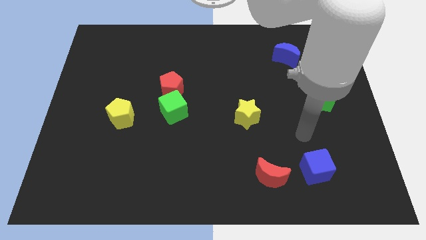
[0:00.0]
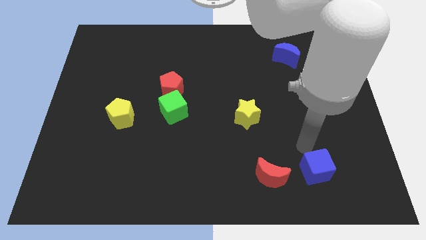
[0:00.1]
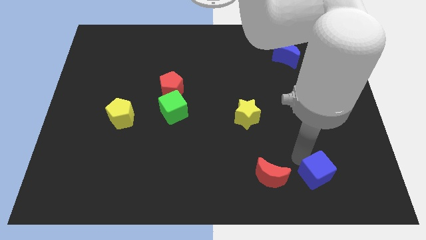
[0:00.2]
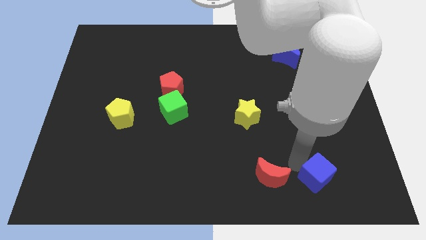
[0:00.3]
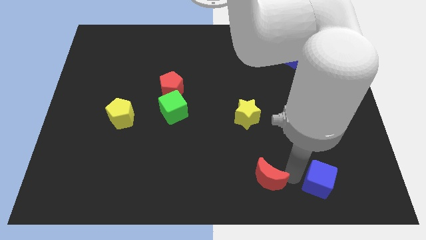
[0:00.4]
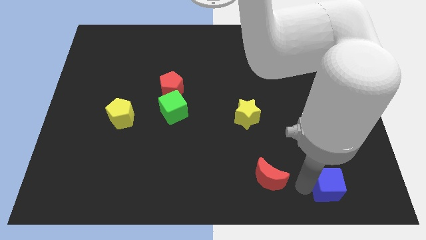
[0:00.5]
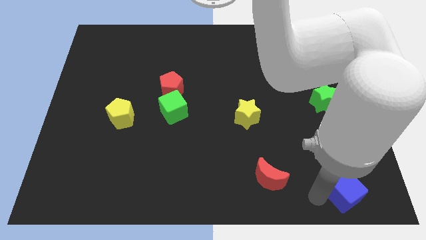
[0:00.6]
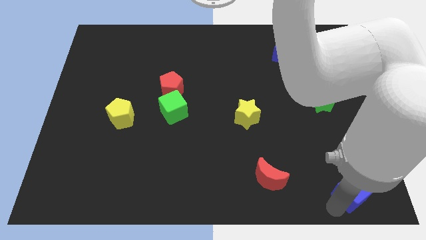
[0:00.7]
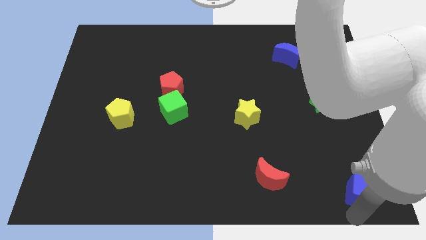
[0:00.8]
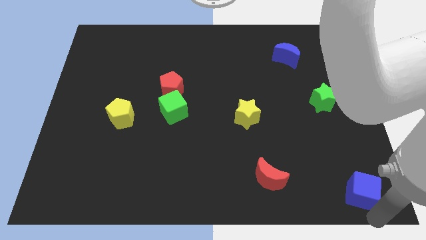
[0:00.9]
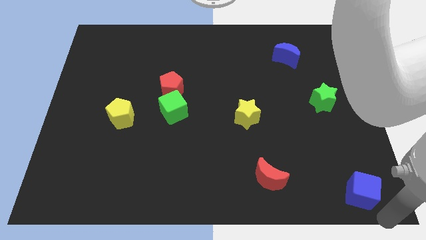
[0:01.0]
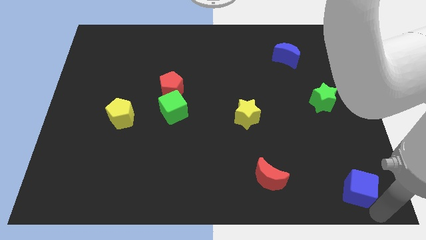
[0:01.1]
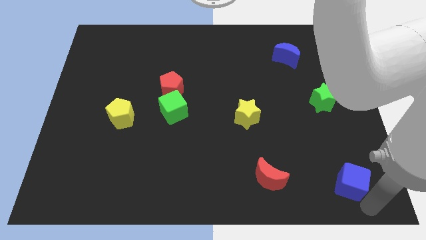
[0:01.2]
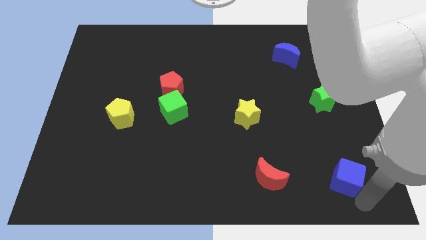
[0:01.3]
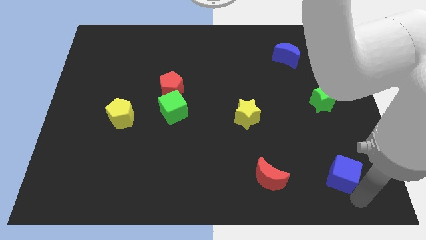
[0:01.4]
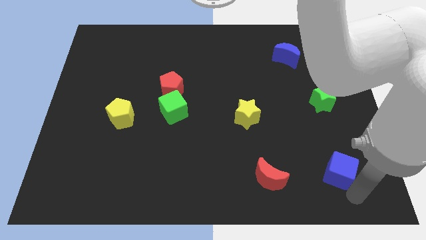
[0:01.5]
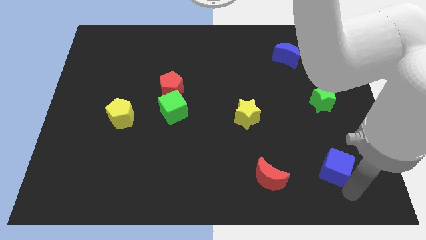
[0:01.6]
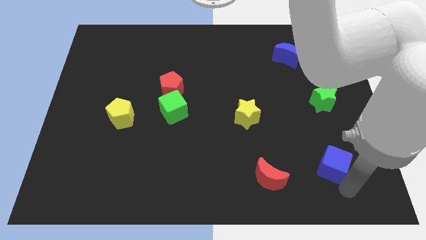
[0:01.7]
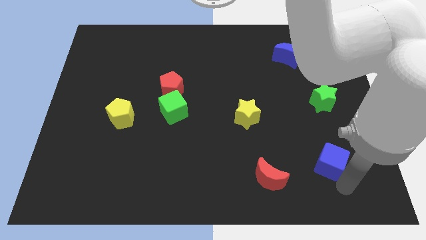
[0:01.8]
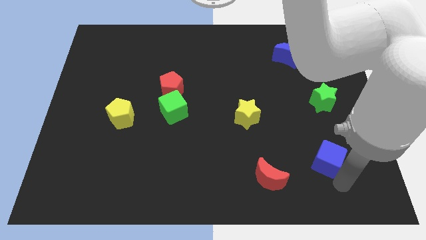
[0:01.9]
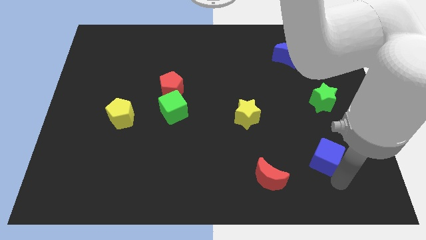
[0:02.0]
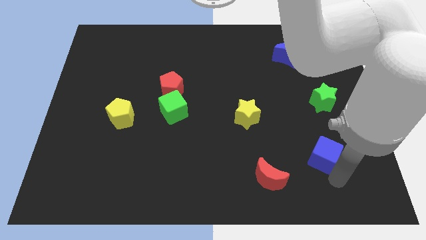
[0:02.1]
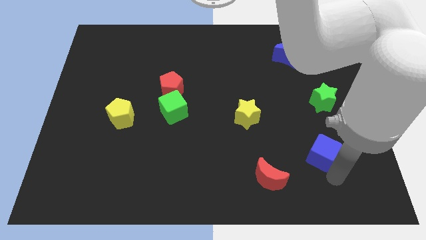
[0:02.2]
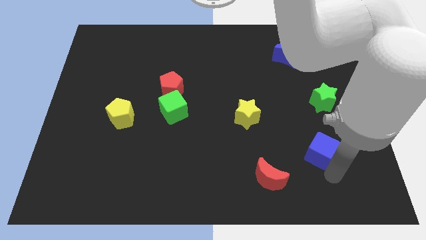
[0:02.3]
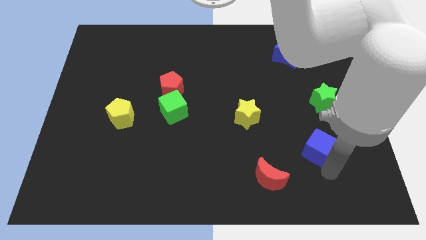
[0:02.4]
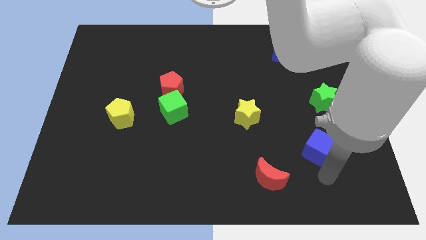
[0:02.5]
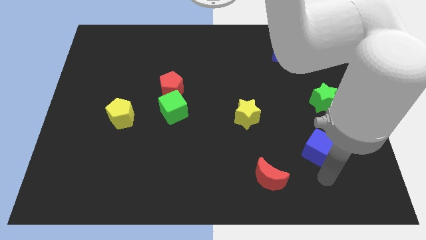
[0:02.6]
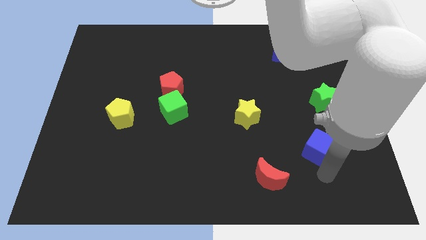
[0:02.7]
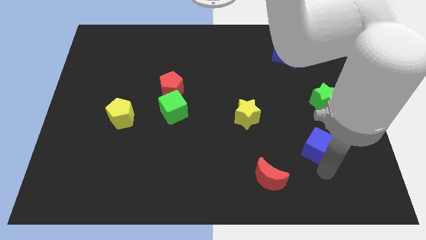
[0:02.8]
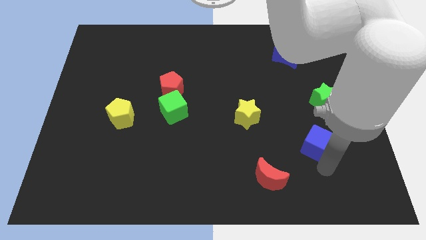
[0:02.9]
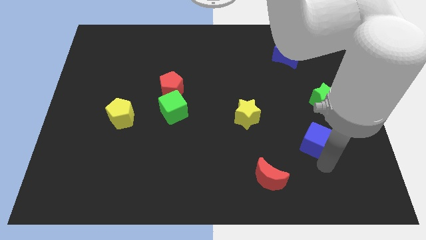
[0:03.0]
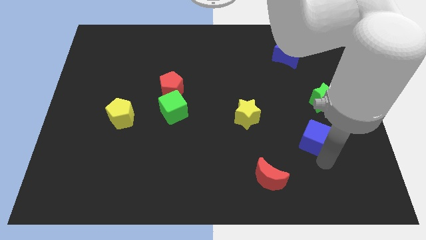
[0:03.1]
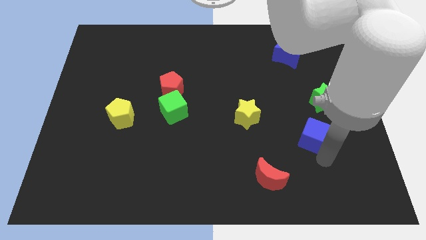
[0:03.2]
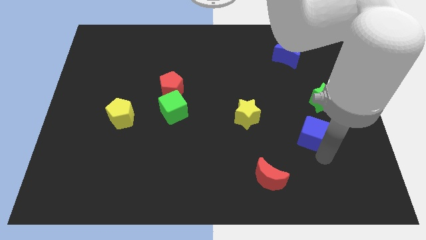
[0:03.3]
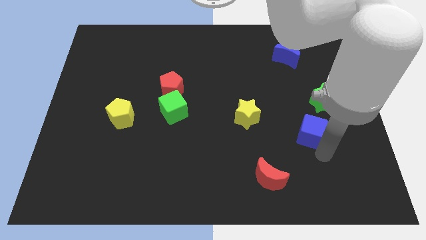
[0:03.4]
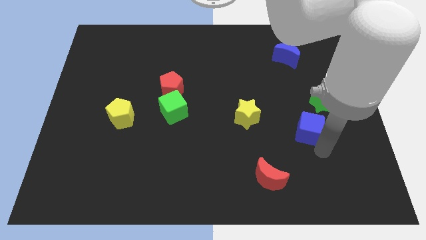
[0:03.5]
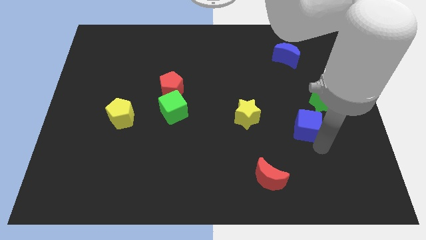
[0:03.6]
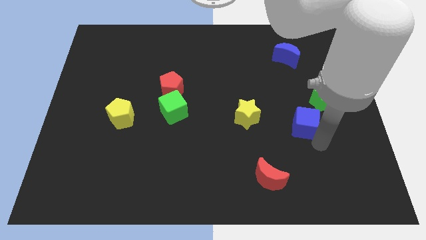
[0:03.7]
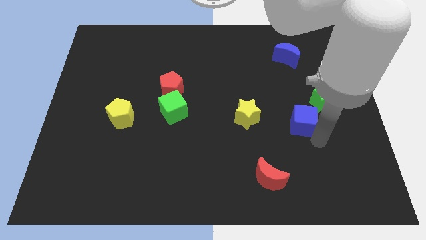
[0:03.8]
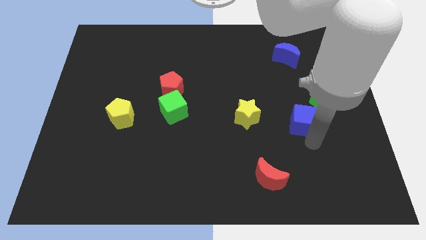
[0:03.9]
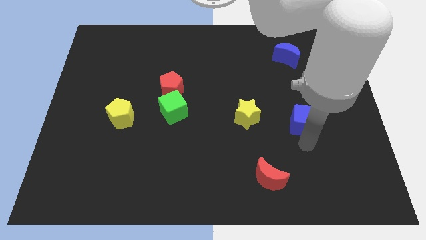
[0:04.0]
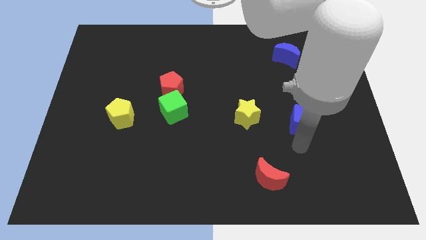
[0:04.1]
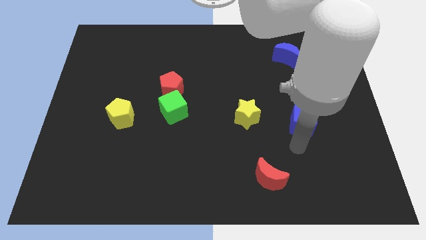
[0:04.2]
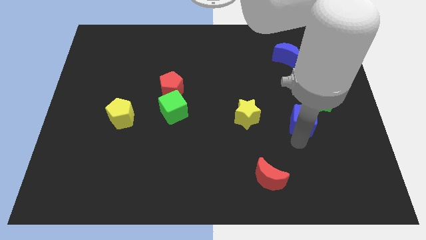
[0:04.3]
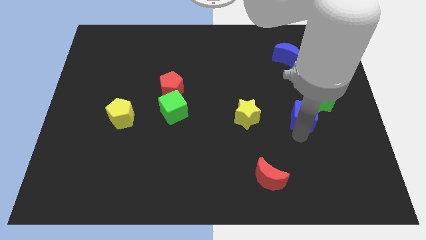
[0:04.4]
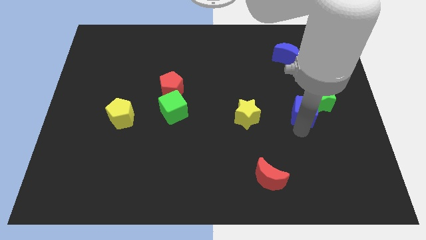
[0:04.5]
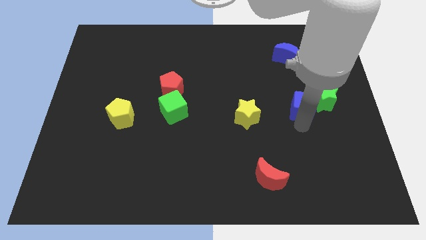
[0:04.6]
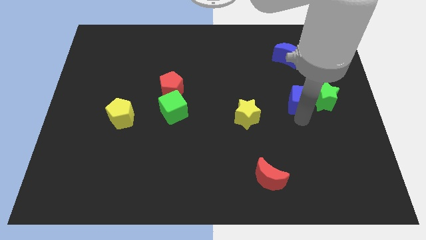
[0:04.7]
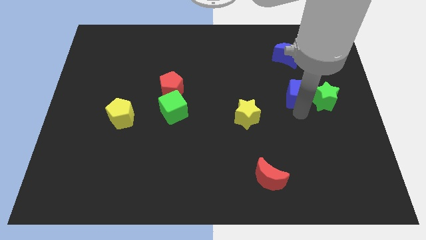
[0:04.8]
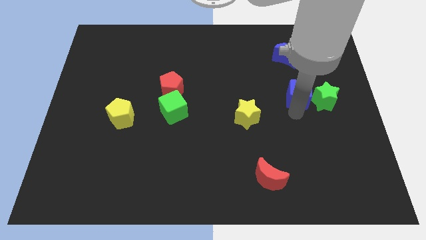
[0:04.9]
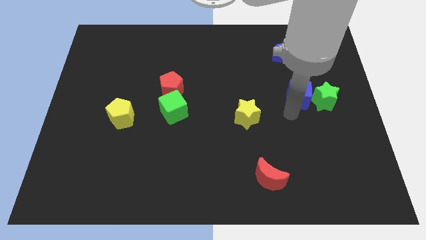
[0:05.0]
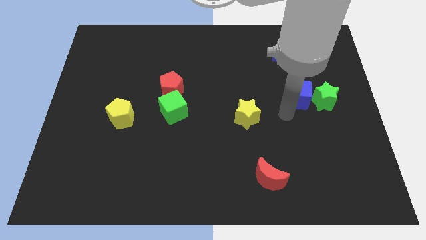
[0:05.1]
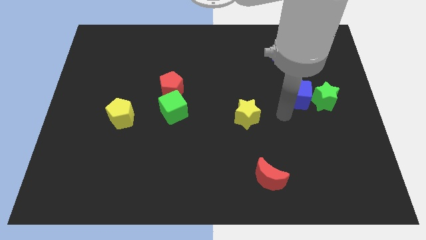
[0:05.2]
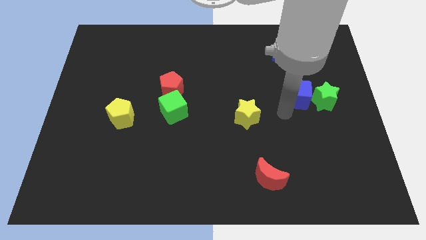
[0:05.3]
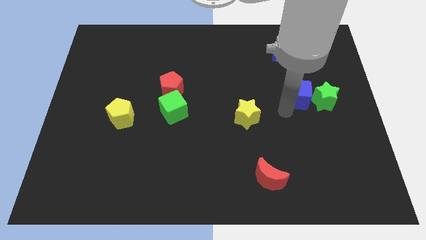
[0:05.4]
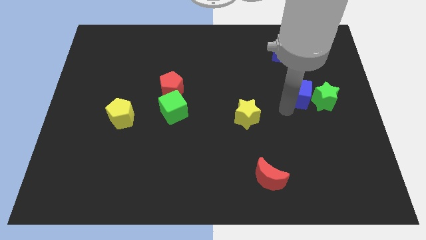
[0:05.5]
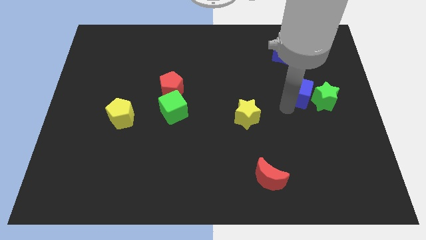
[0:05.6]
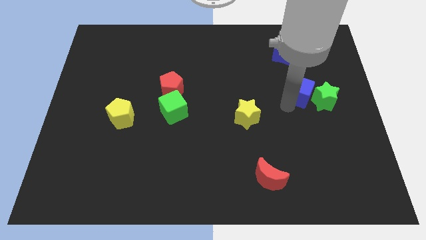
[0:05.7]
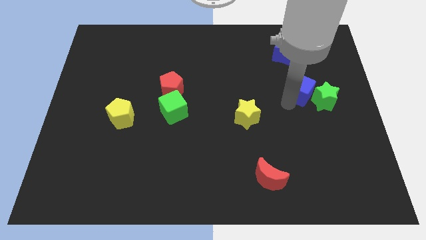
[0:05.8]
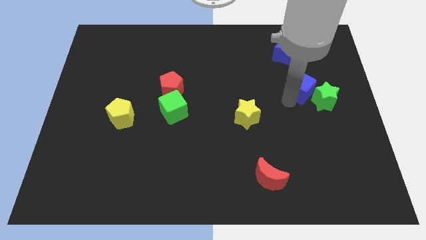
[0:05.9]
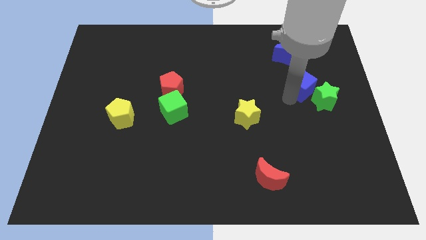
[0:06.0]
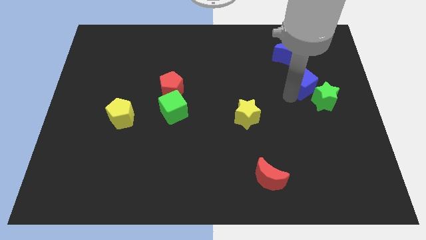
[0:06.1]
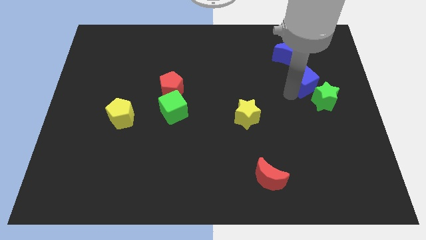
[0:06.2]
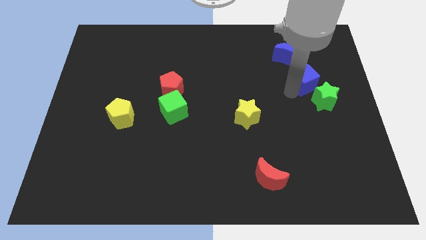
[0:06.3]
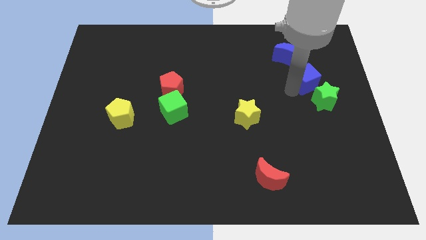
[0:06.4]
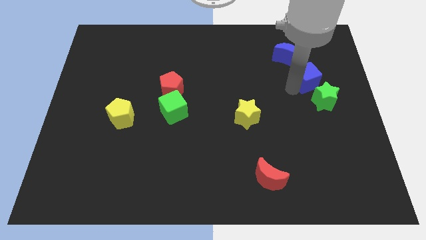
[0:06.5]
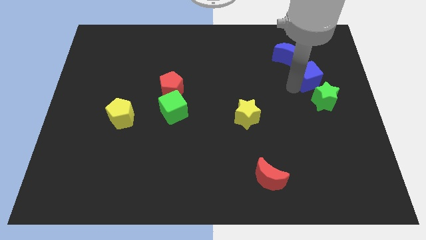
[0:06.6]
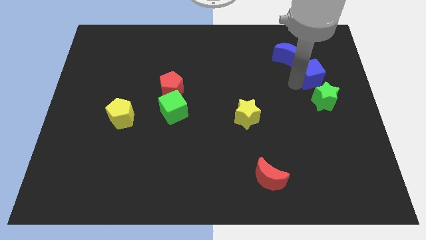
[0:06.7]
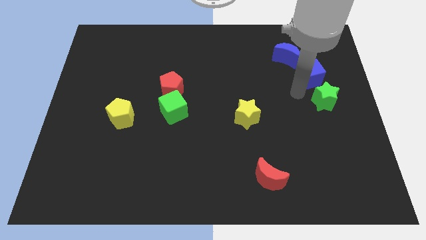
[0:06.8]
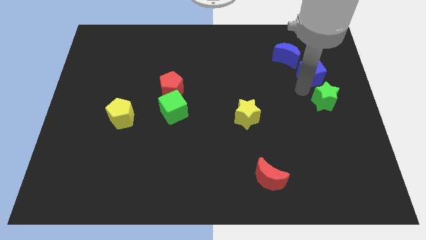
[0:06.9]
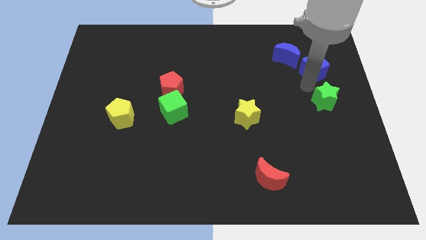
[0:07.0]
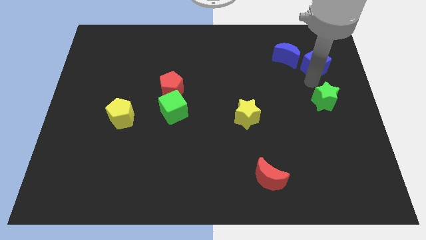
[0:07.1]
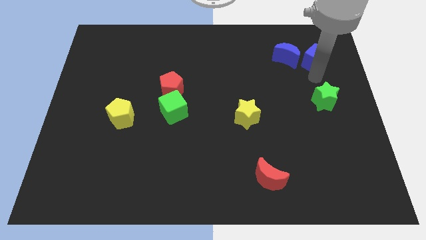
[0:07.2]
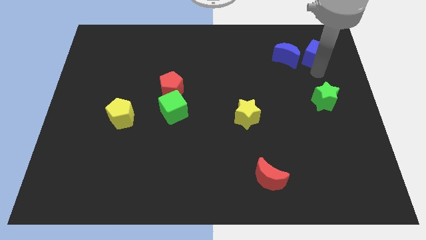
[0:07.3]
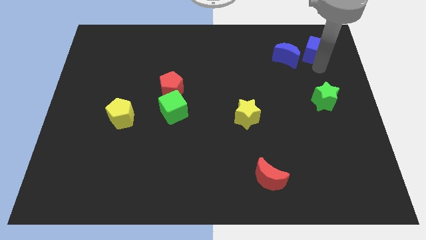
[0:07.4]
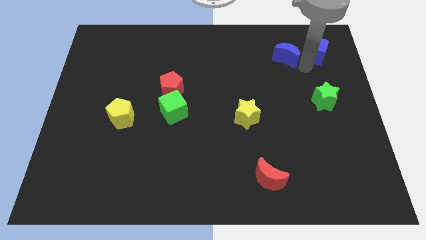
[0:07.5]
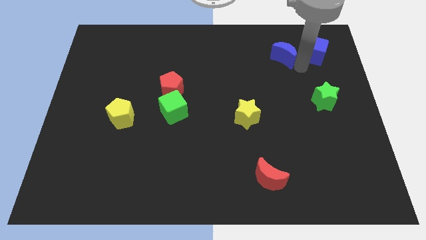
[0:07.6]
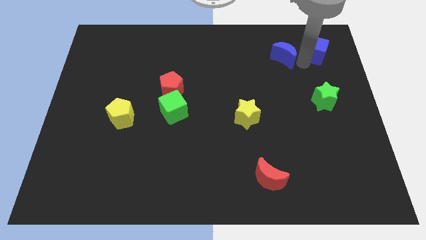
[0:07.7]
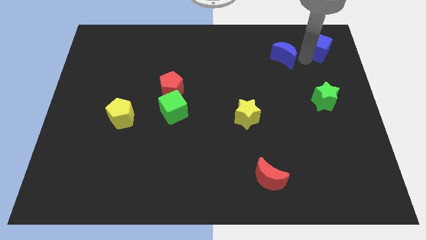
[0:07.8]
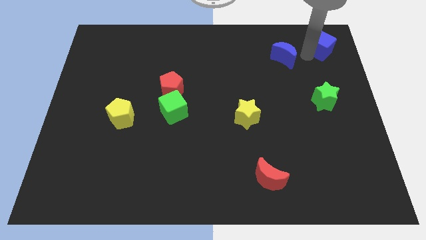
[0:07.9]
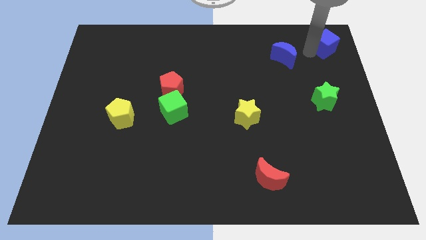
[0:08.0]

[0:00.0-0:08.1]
slide the blue cube to the upper right corner
